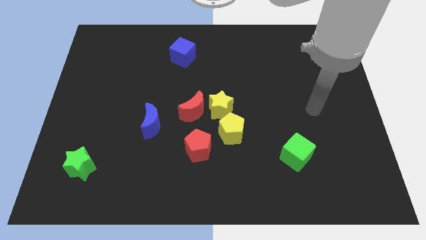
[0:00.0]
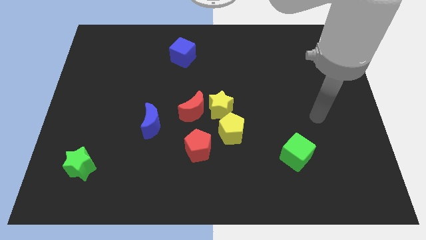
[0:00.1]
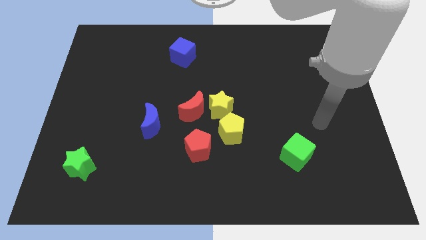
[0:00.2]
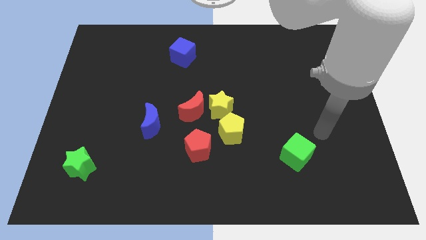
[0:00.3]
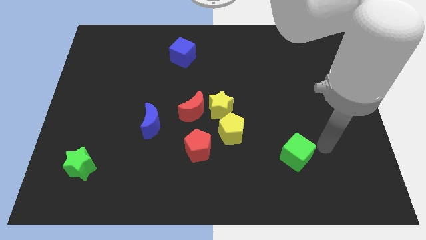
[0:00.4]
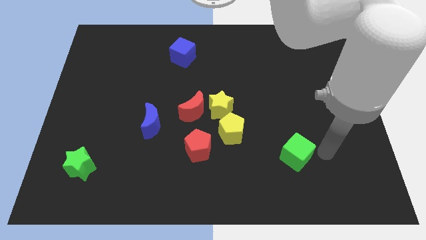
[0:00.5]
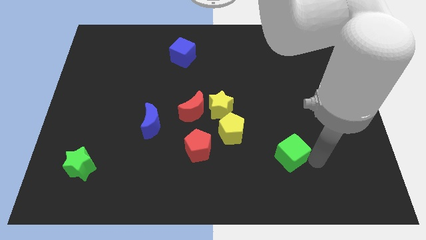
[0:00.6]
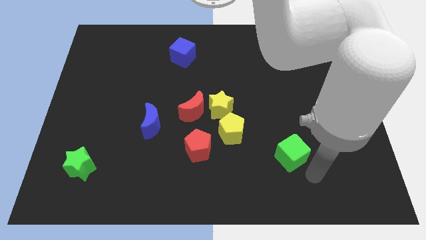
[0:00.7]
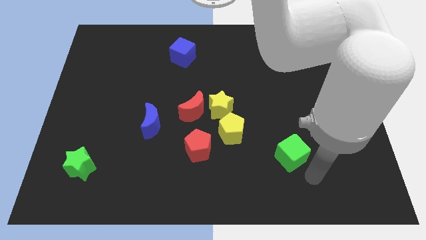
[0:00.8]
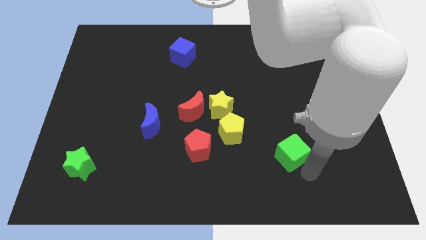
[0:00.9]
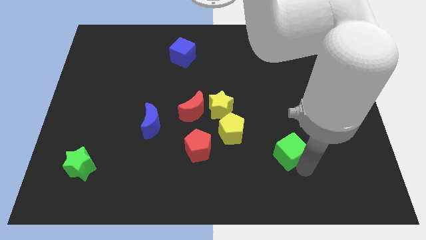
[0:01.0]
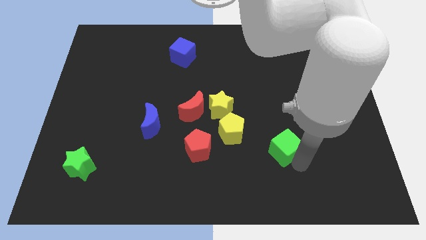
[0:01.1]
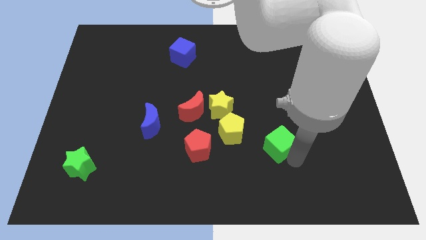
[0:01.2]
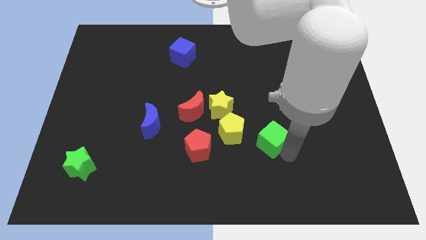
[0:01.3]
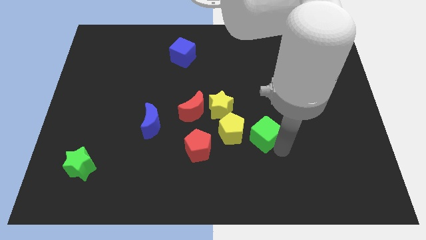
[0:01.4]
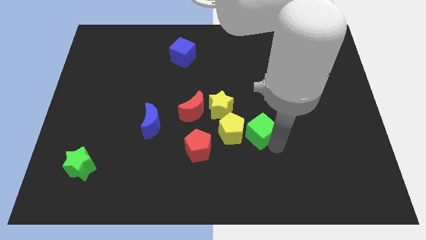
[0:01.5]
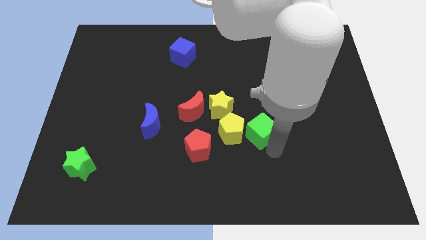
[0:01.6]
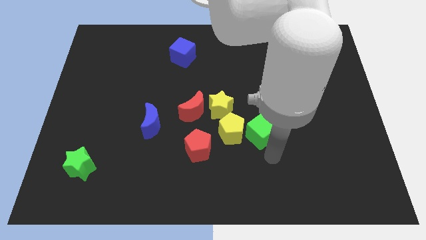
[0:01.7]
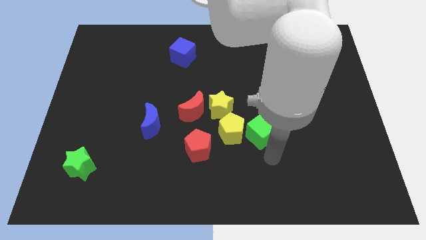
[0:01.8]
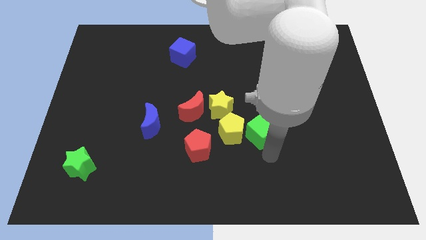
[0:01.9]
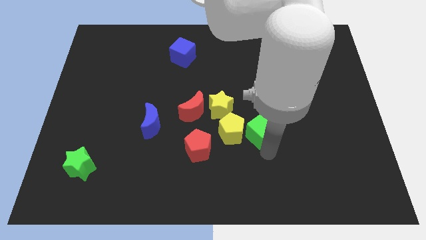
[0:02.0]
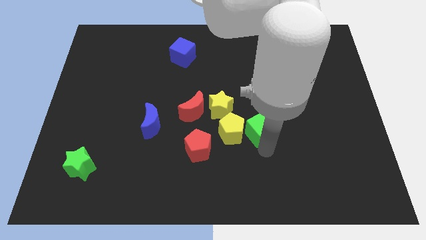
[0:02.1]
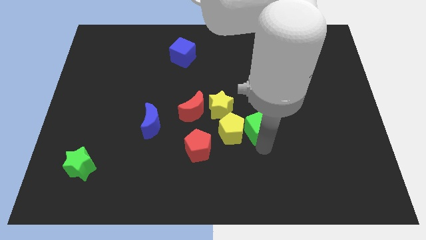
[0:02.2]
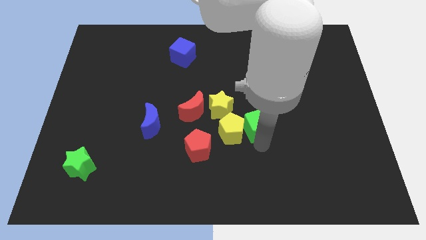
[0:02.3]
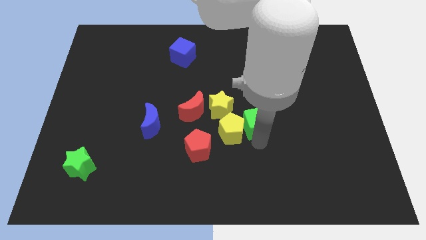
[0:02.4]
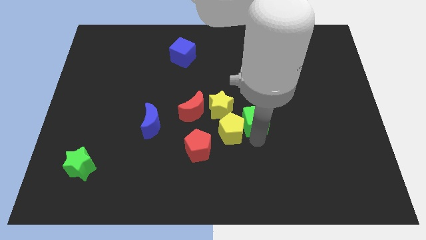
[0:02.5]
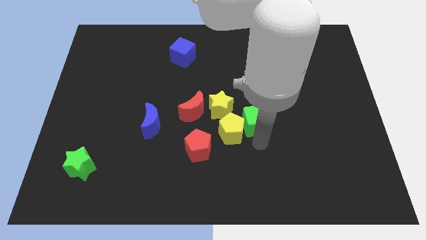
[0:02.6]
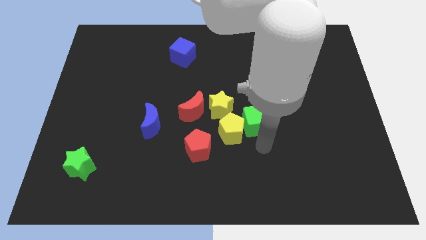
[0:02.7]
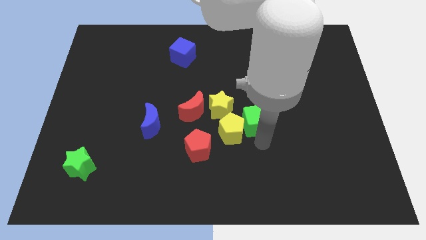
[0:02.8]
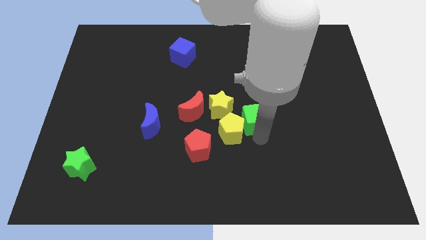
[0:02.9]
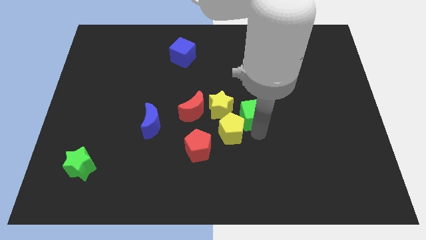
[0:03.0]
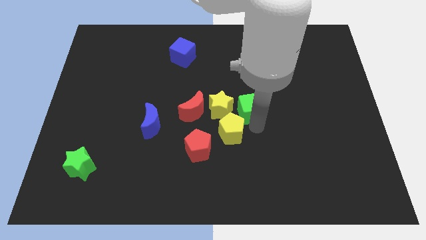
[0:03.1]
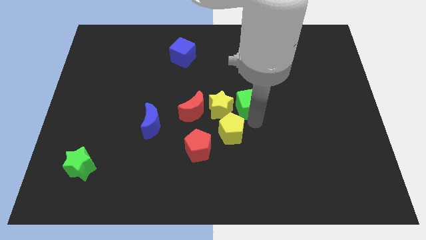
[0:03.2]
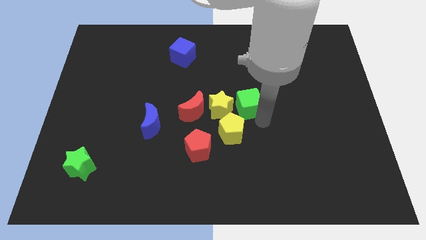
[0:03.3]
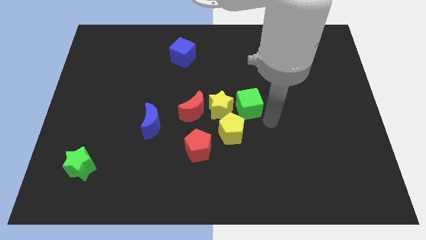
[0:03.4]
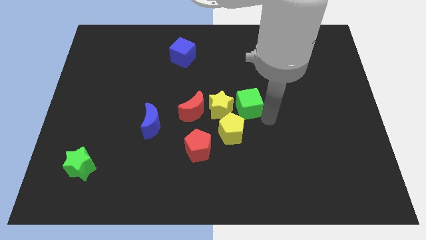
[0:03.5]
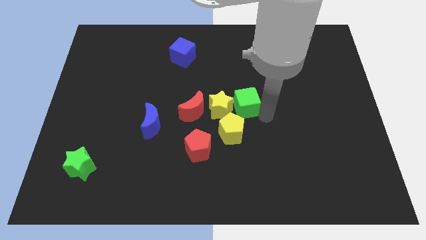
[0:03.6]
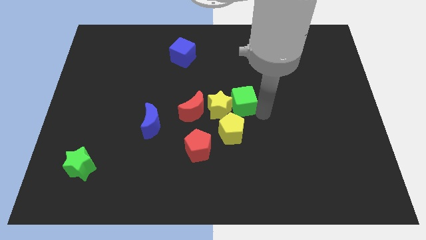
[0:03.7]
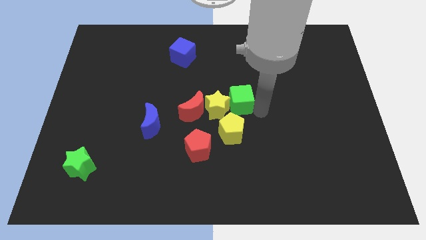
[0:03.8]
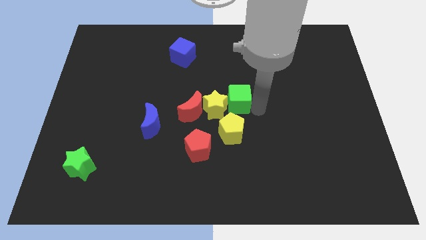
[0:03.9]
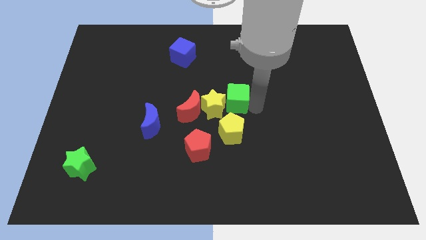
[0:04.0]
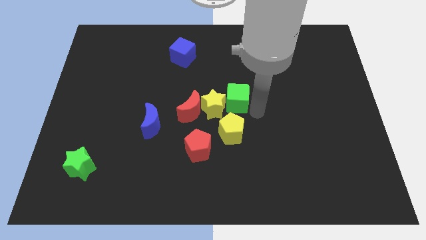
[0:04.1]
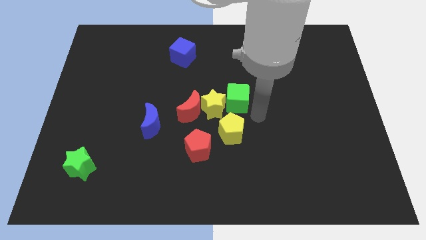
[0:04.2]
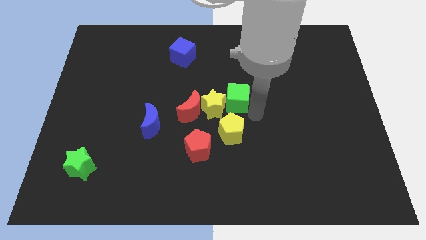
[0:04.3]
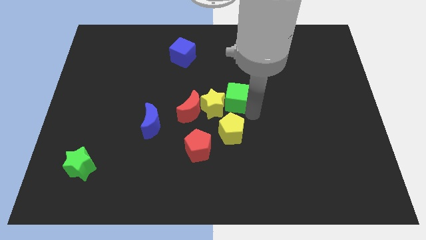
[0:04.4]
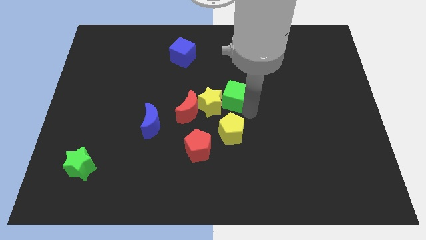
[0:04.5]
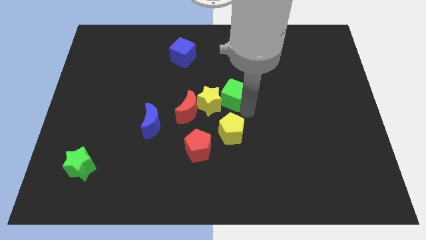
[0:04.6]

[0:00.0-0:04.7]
move the green cube up and then to the left

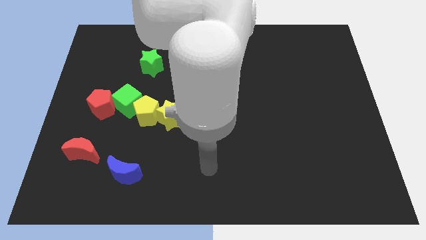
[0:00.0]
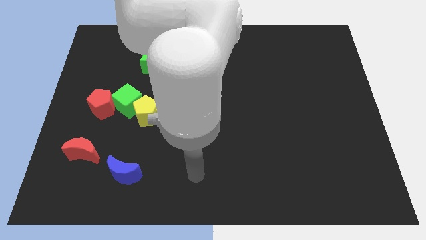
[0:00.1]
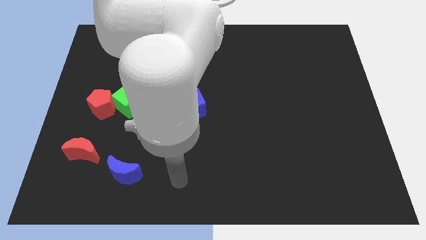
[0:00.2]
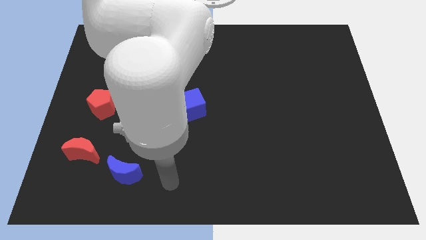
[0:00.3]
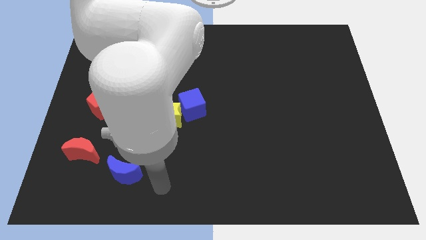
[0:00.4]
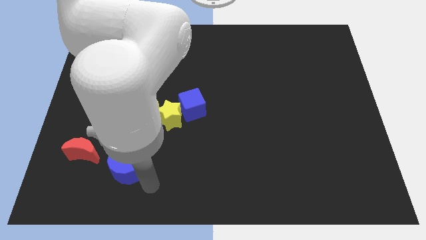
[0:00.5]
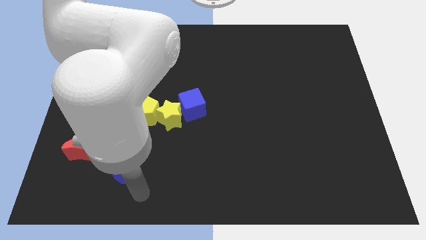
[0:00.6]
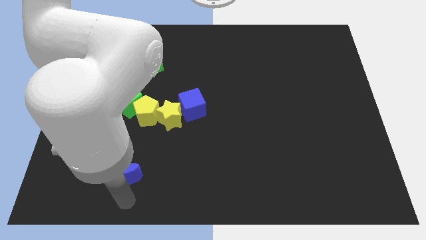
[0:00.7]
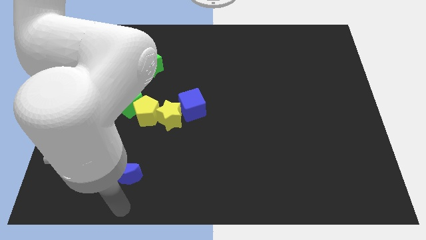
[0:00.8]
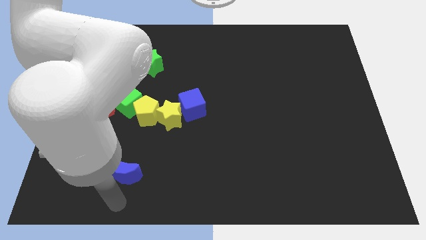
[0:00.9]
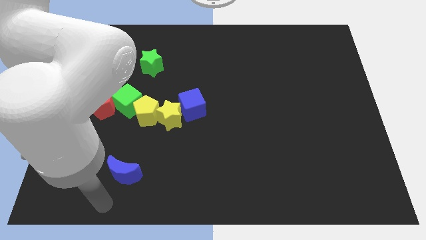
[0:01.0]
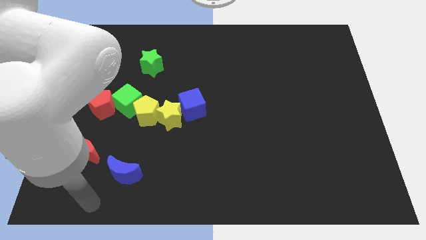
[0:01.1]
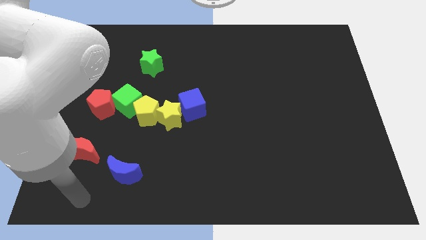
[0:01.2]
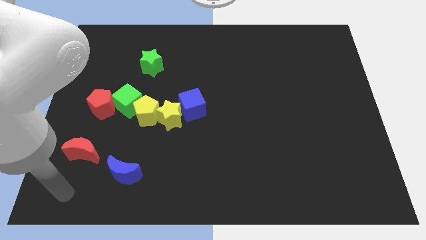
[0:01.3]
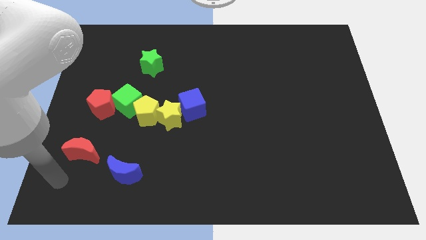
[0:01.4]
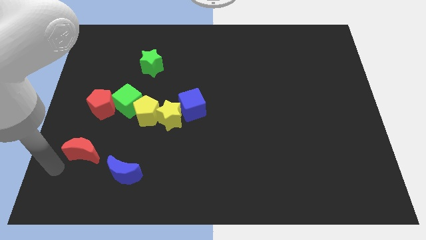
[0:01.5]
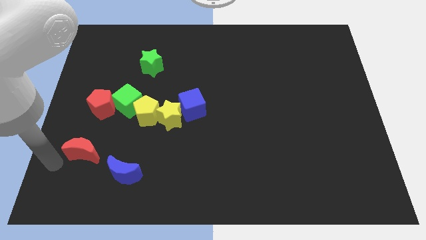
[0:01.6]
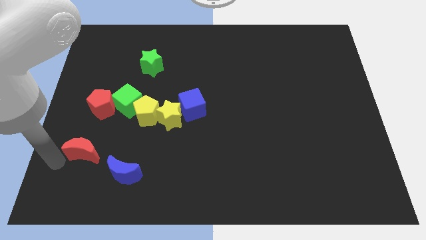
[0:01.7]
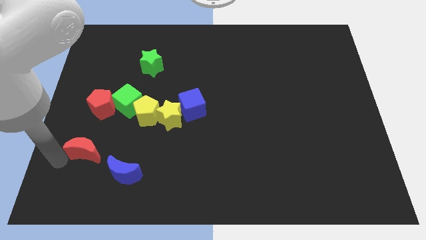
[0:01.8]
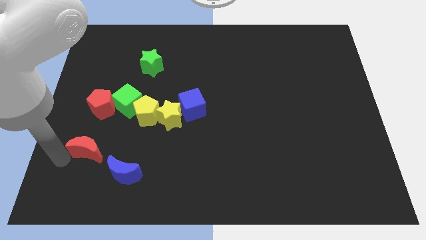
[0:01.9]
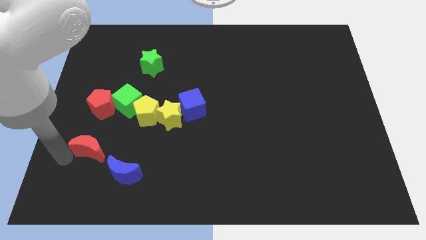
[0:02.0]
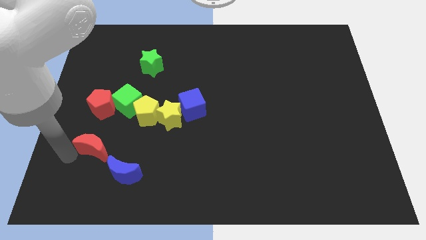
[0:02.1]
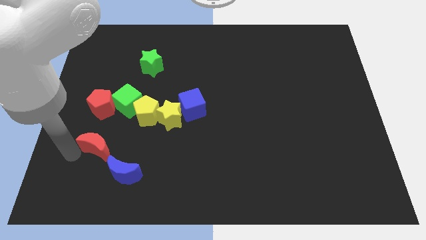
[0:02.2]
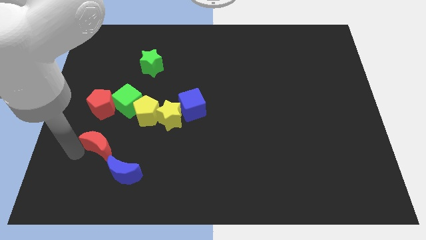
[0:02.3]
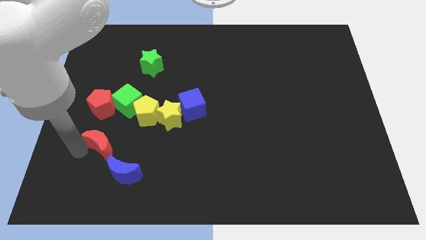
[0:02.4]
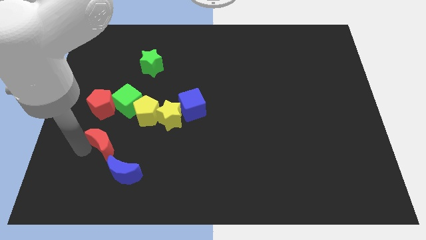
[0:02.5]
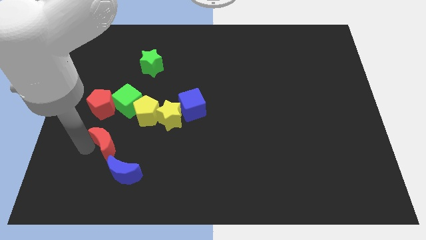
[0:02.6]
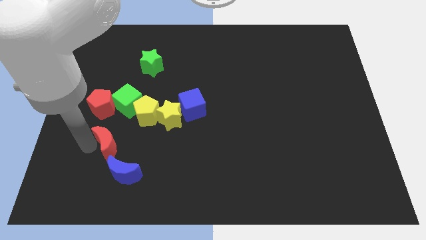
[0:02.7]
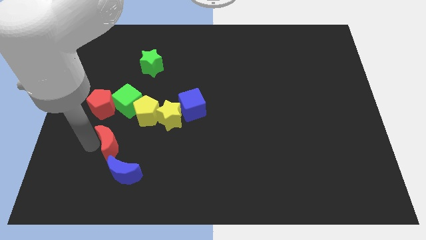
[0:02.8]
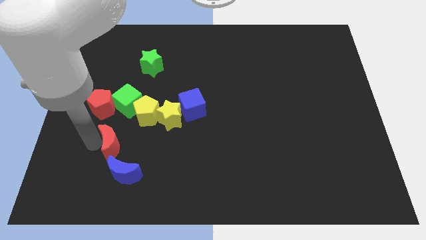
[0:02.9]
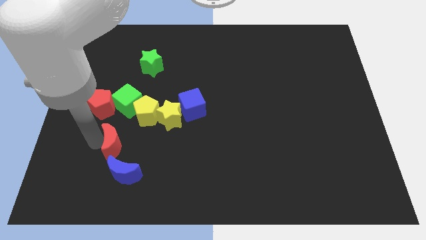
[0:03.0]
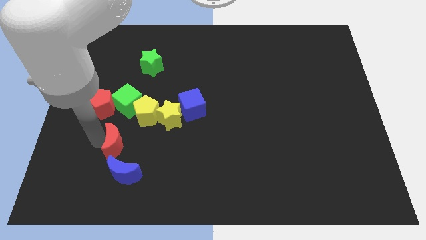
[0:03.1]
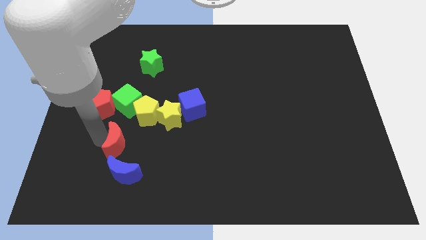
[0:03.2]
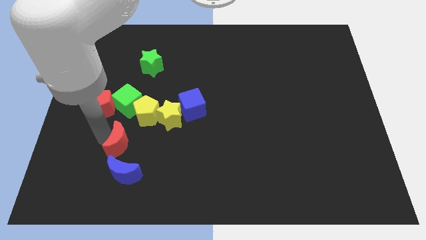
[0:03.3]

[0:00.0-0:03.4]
slightly slide the red moon to the right
